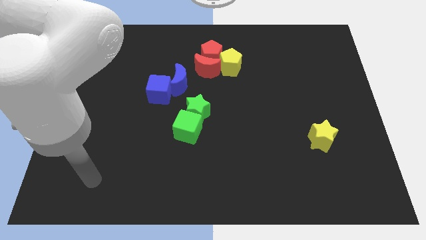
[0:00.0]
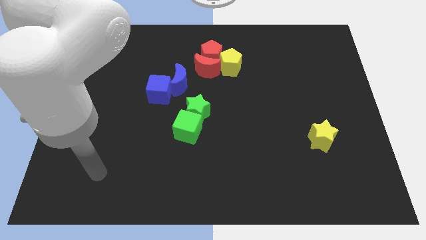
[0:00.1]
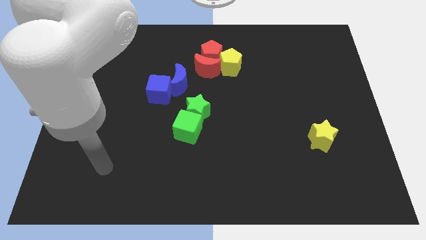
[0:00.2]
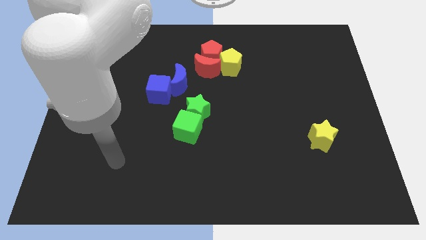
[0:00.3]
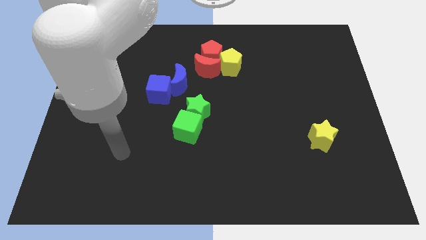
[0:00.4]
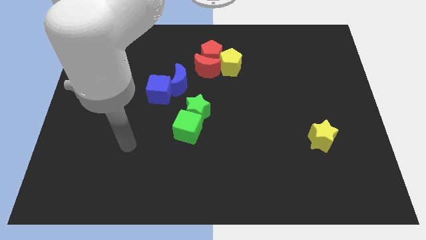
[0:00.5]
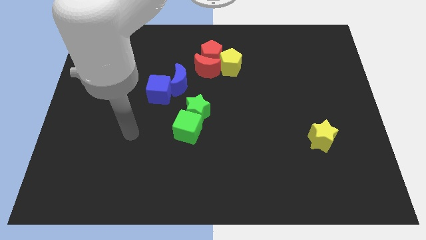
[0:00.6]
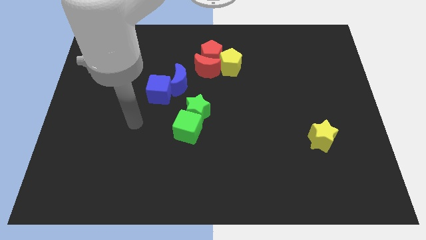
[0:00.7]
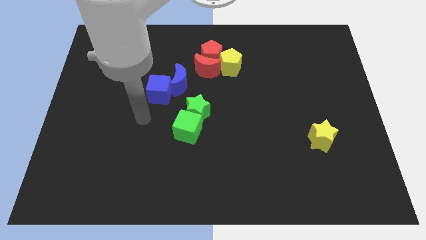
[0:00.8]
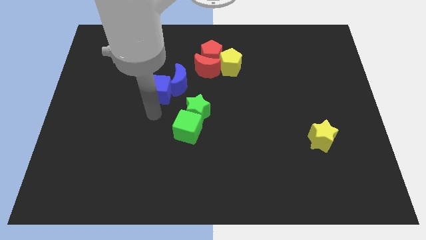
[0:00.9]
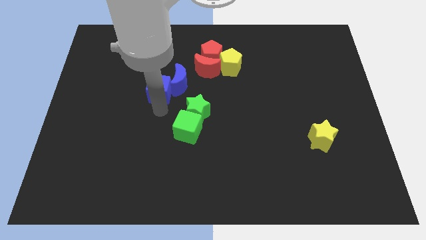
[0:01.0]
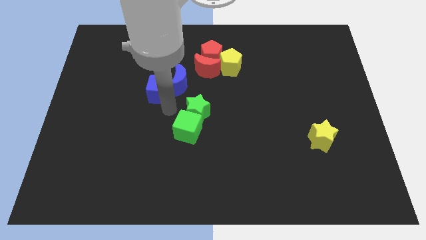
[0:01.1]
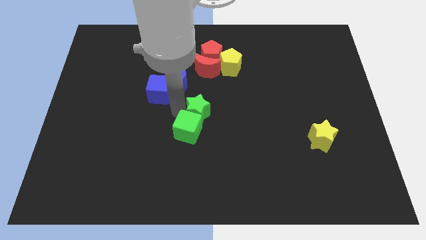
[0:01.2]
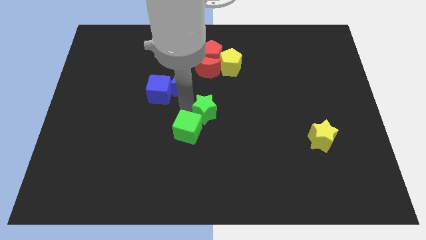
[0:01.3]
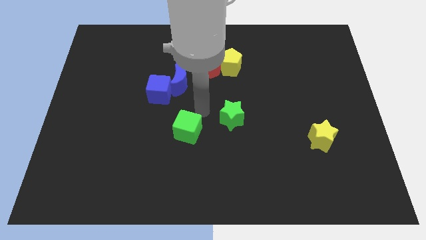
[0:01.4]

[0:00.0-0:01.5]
pull the green cube apart from the green star

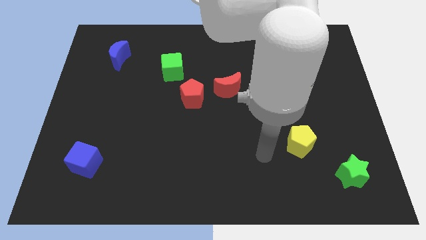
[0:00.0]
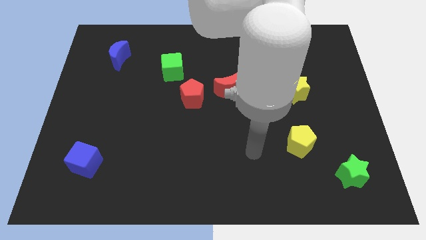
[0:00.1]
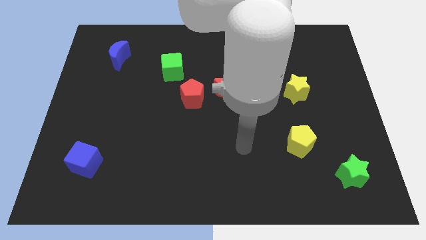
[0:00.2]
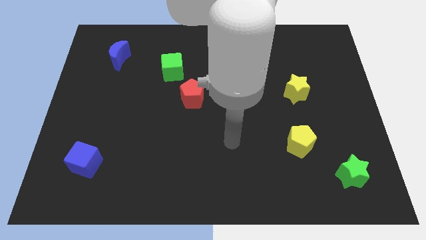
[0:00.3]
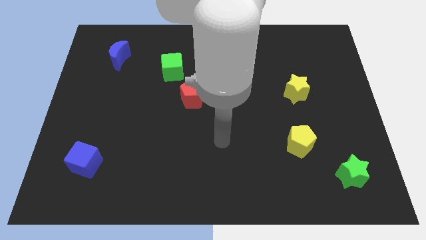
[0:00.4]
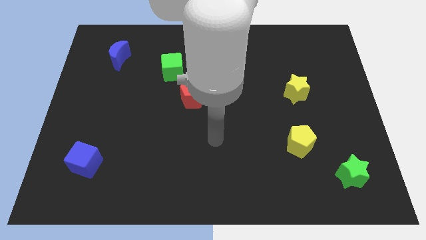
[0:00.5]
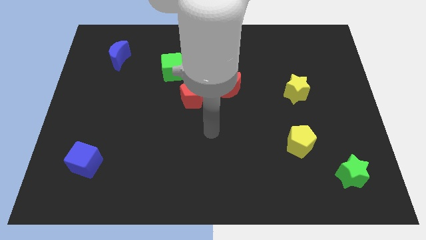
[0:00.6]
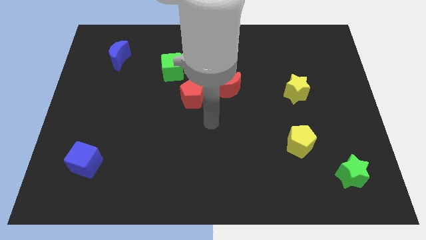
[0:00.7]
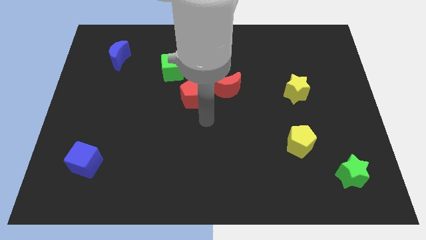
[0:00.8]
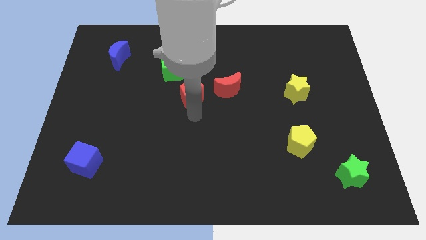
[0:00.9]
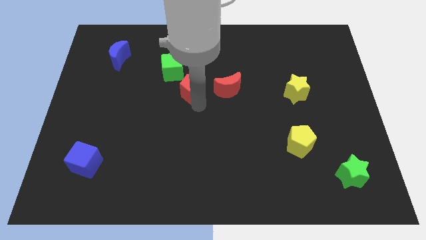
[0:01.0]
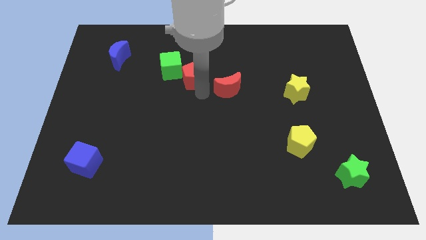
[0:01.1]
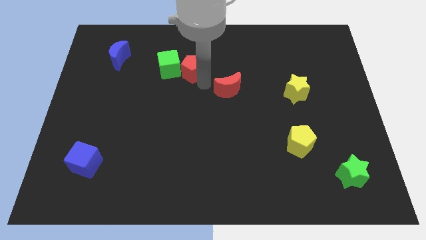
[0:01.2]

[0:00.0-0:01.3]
pull the red moon apart from the red pentagon

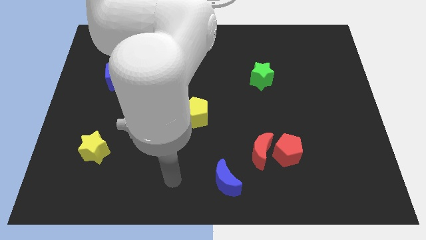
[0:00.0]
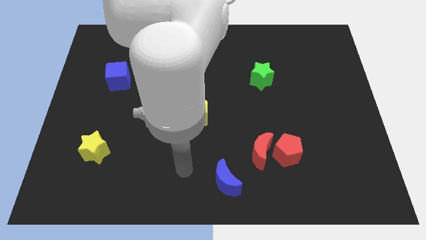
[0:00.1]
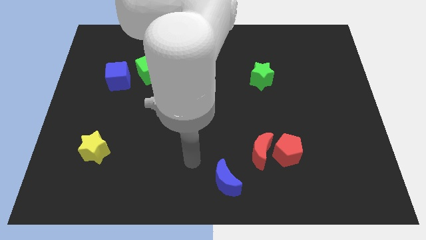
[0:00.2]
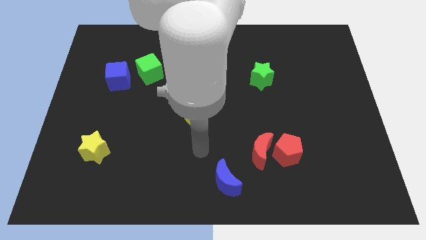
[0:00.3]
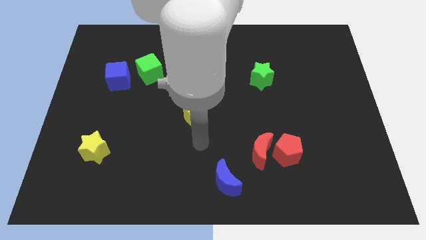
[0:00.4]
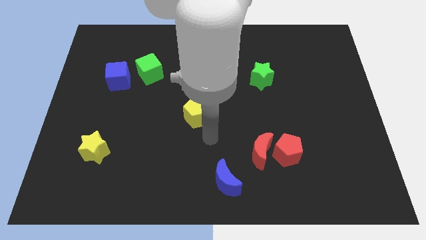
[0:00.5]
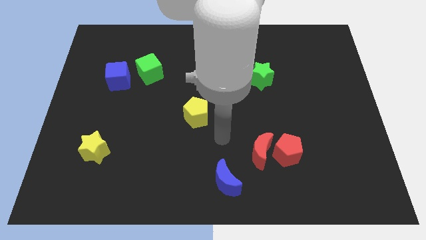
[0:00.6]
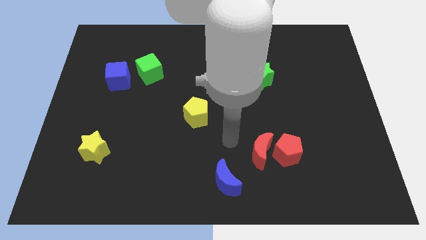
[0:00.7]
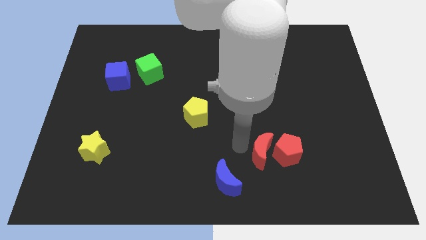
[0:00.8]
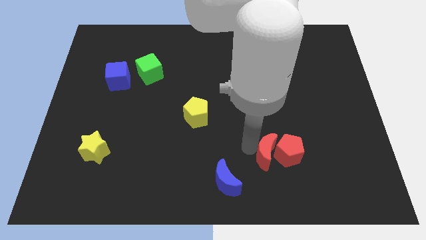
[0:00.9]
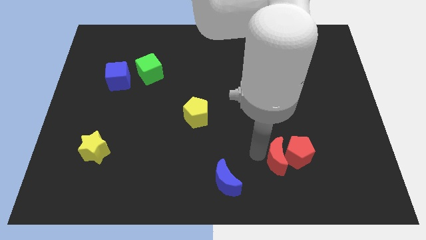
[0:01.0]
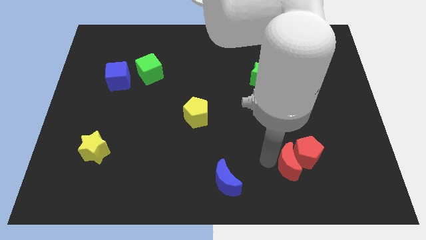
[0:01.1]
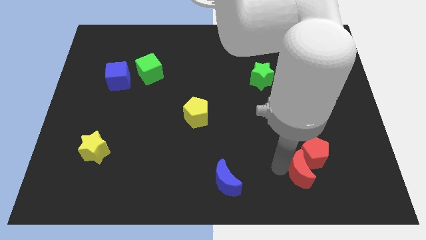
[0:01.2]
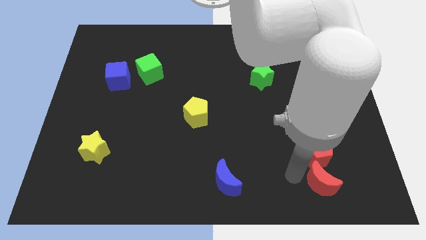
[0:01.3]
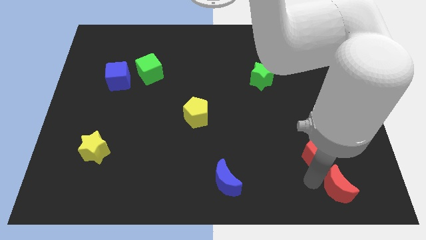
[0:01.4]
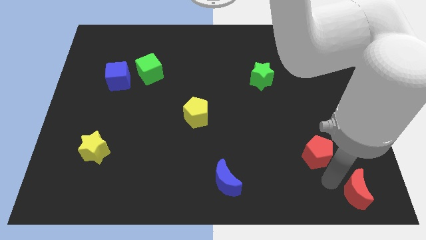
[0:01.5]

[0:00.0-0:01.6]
pull the red pentagon apart from the red moon

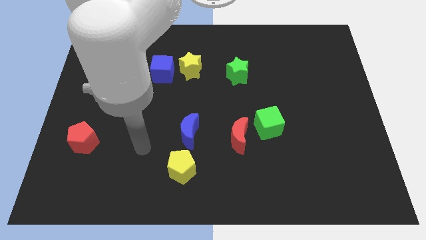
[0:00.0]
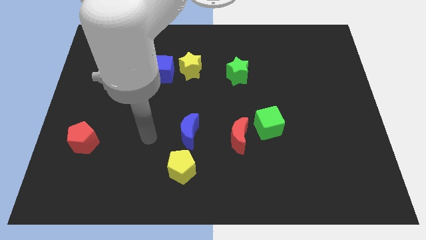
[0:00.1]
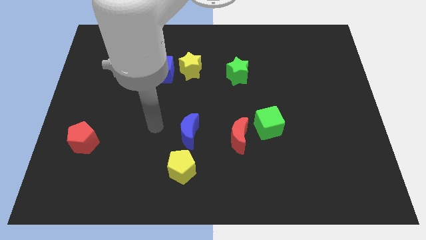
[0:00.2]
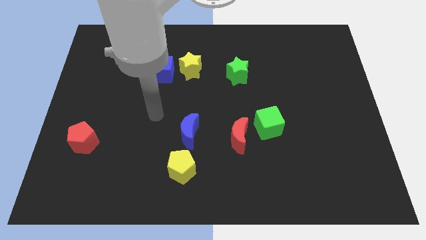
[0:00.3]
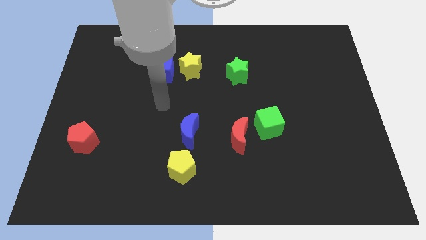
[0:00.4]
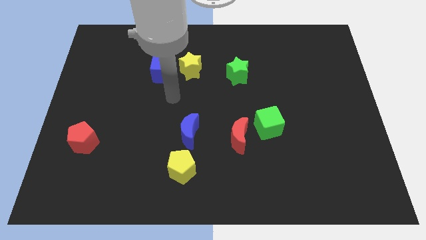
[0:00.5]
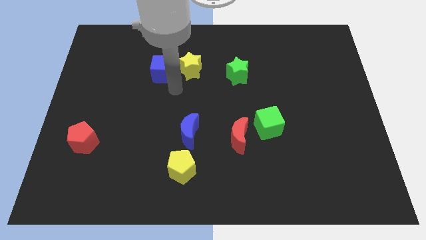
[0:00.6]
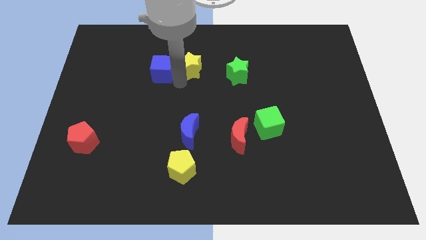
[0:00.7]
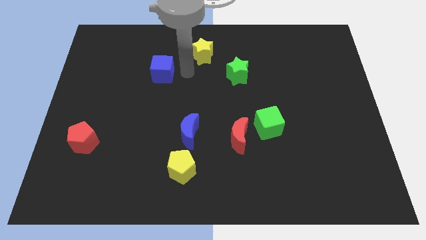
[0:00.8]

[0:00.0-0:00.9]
pull the blue cube apart from the yellow star

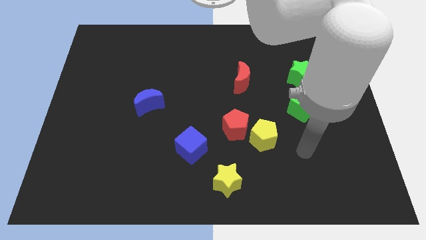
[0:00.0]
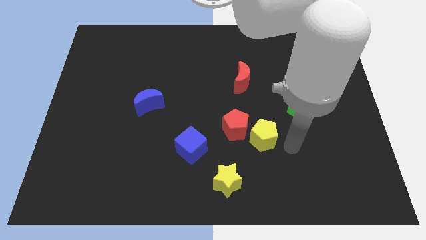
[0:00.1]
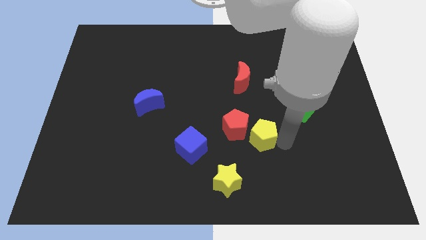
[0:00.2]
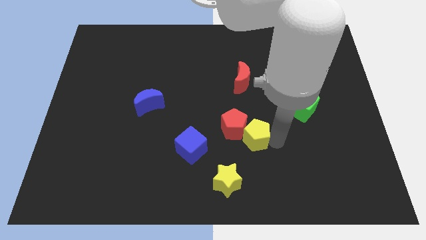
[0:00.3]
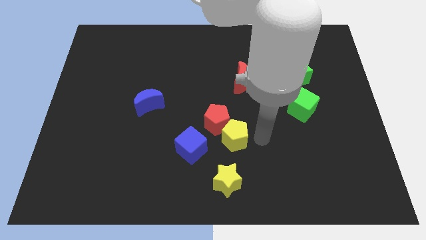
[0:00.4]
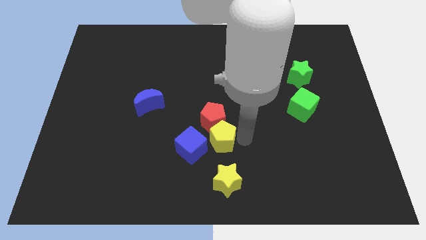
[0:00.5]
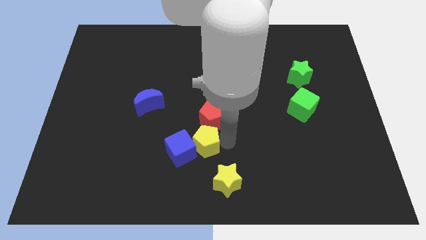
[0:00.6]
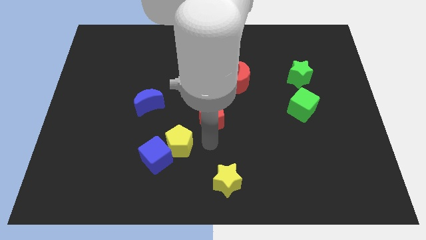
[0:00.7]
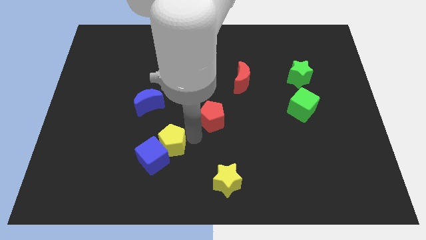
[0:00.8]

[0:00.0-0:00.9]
pull the red pentagon apart from the yellow pentagon

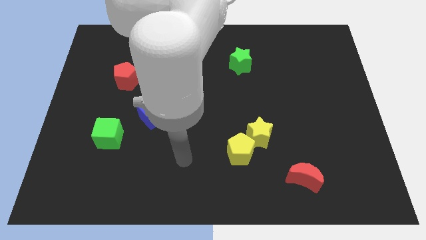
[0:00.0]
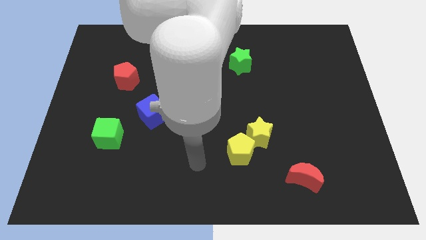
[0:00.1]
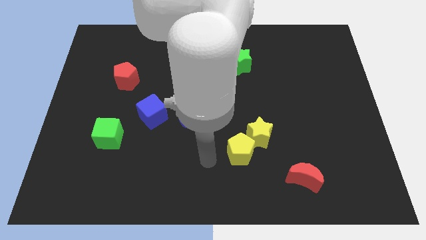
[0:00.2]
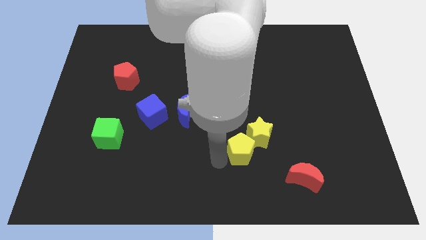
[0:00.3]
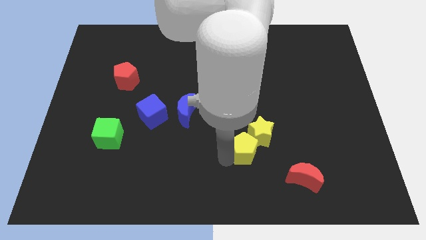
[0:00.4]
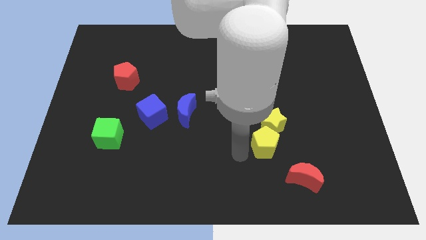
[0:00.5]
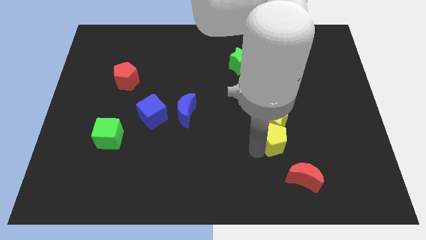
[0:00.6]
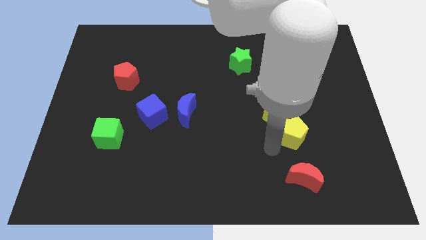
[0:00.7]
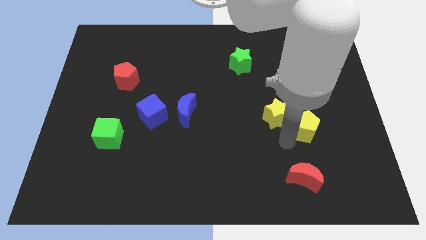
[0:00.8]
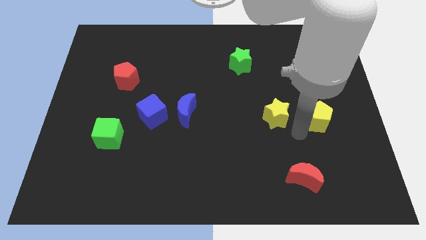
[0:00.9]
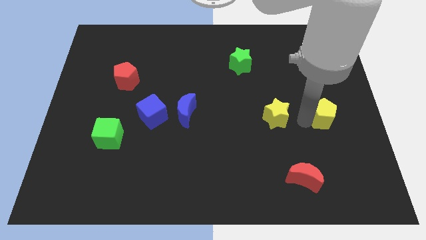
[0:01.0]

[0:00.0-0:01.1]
pull the yellow star apart from the yellow pentagon

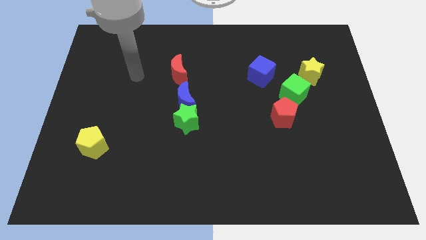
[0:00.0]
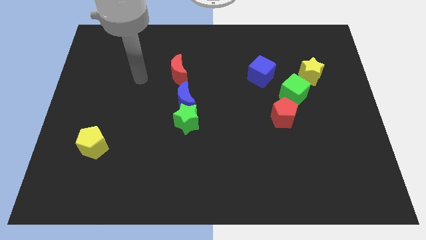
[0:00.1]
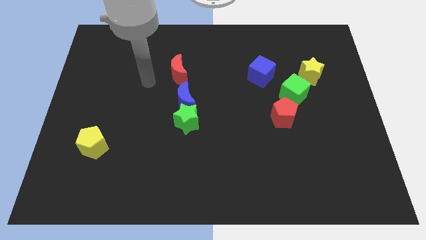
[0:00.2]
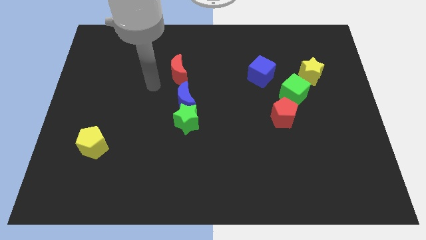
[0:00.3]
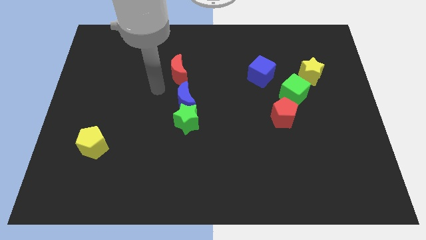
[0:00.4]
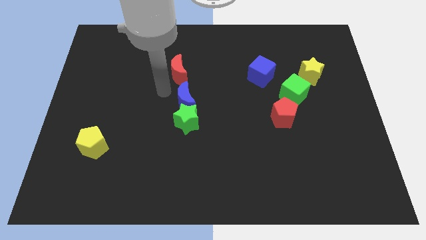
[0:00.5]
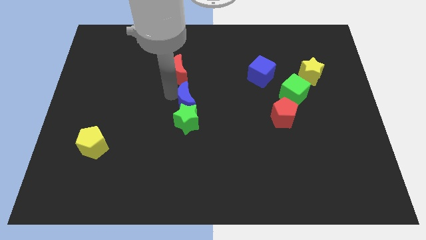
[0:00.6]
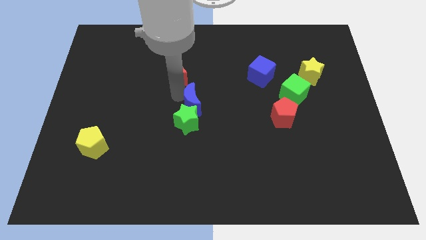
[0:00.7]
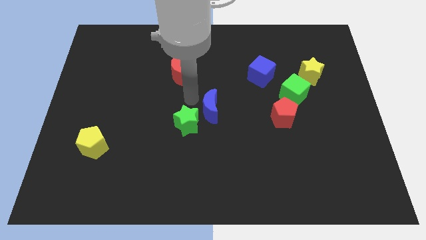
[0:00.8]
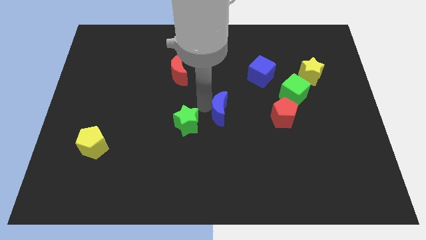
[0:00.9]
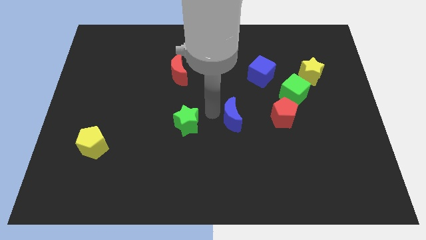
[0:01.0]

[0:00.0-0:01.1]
pull the green star apart from the blue moon

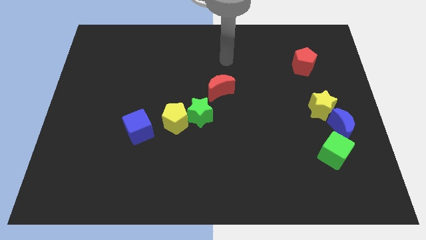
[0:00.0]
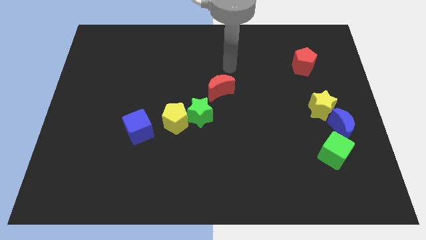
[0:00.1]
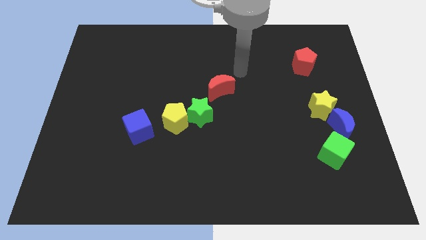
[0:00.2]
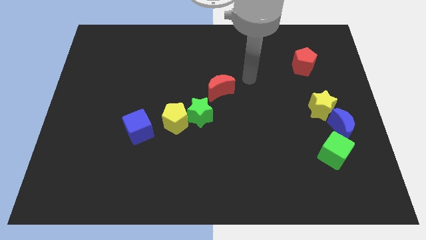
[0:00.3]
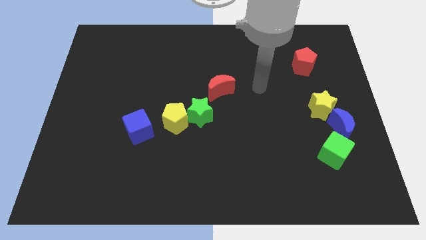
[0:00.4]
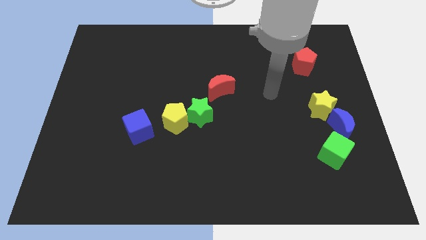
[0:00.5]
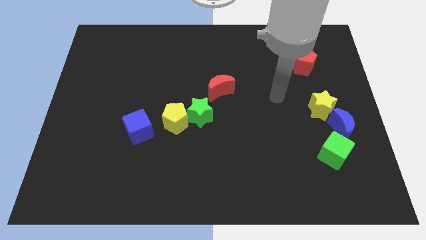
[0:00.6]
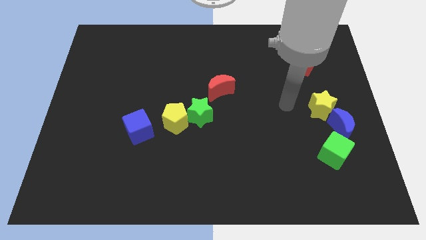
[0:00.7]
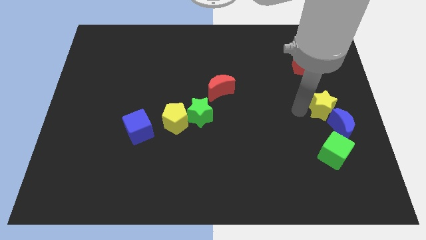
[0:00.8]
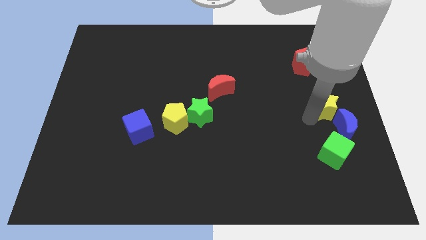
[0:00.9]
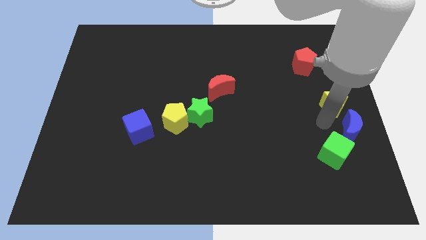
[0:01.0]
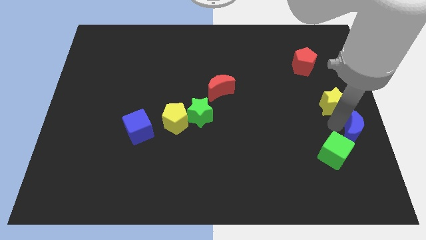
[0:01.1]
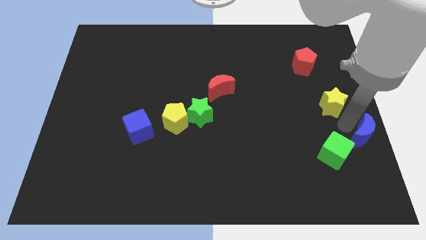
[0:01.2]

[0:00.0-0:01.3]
pull the yellow star apart from the blue moon
